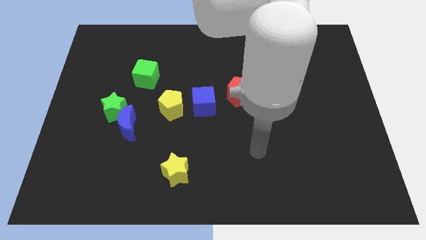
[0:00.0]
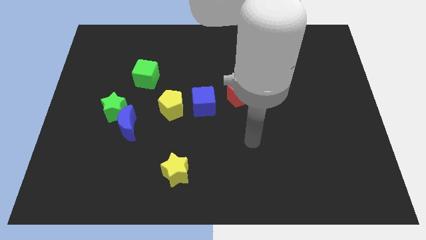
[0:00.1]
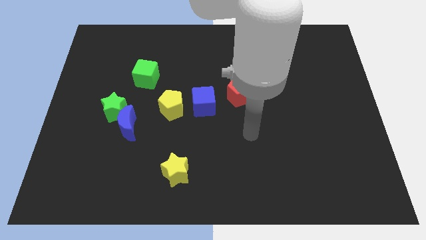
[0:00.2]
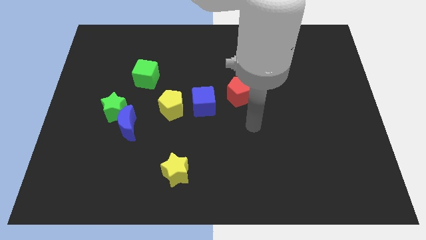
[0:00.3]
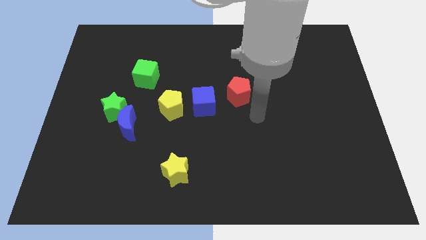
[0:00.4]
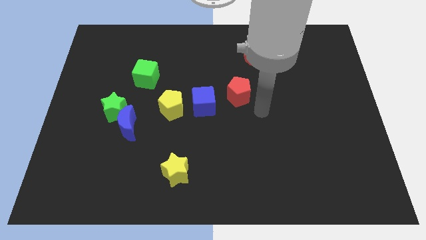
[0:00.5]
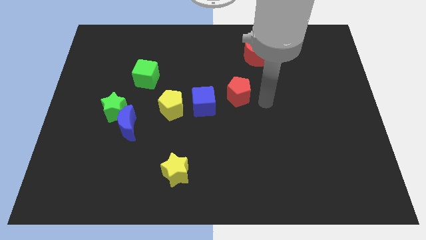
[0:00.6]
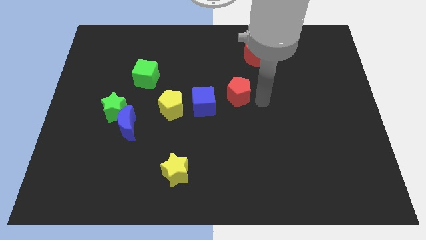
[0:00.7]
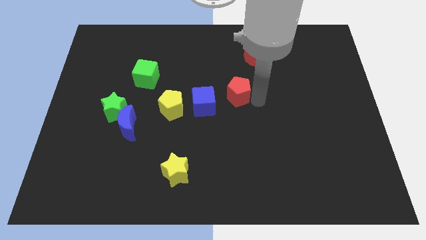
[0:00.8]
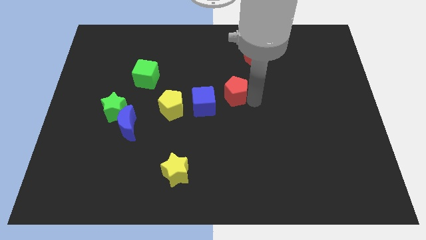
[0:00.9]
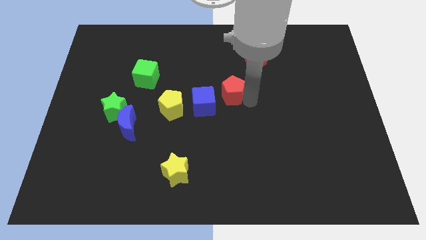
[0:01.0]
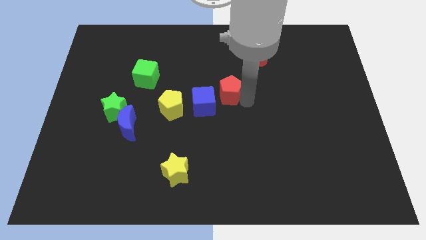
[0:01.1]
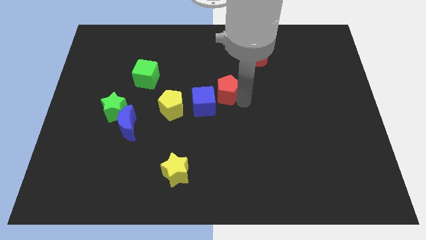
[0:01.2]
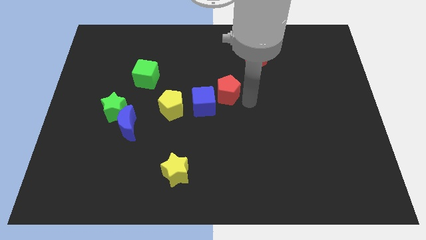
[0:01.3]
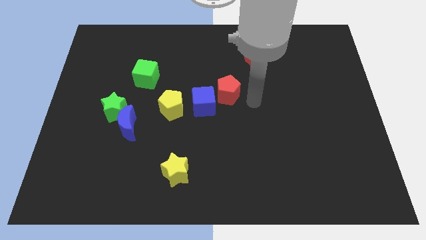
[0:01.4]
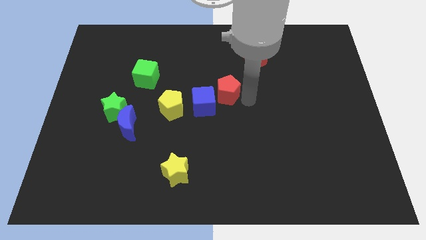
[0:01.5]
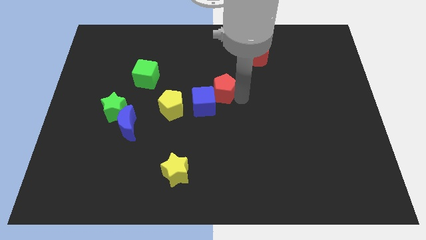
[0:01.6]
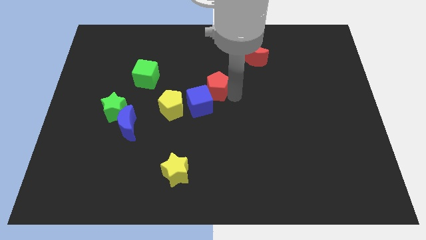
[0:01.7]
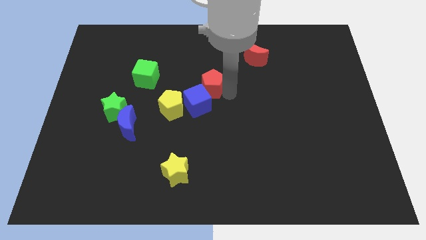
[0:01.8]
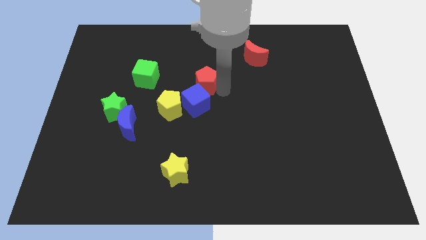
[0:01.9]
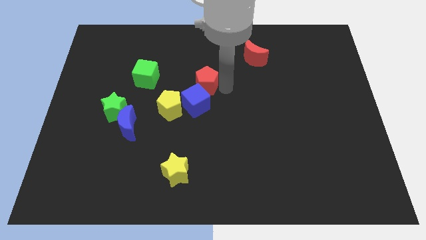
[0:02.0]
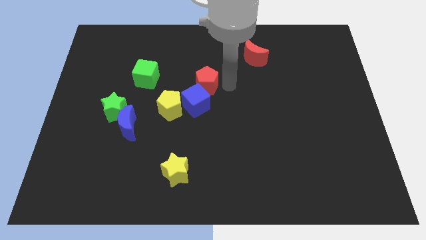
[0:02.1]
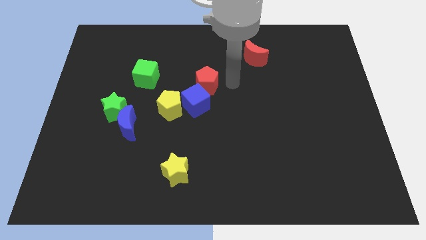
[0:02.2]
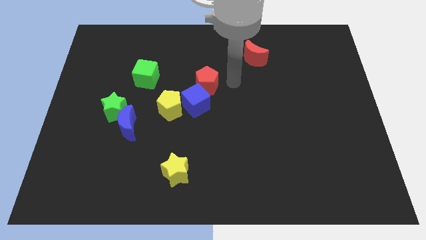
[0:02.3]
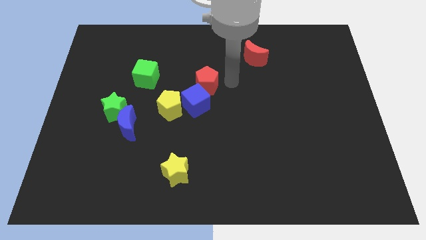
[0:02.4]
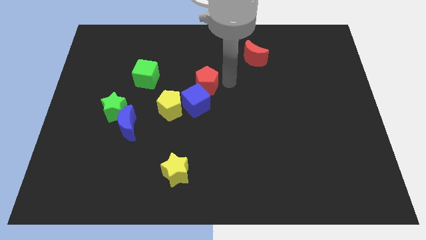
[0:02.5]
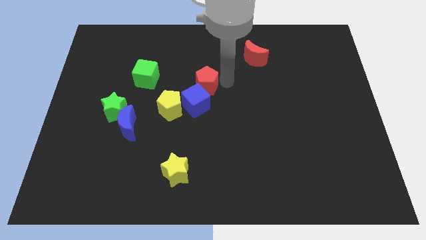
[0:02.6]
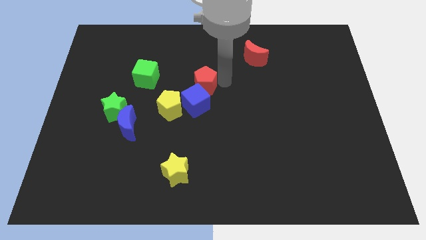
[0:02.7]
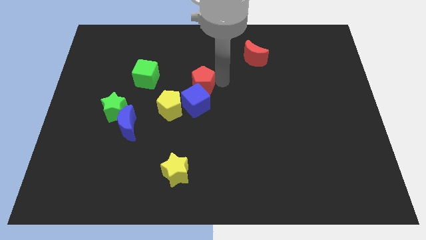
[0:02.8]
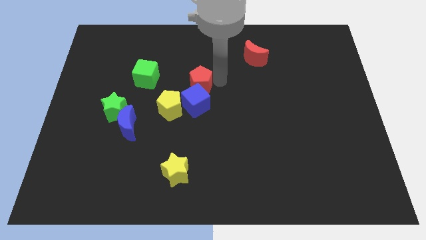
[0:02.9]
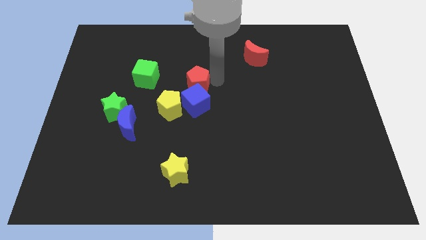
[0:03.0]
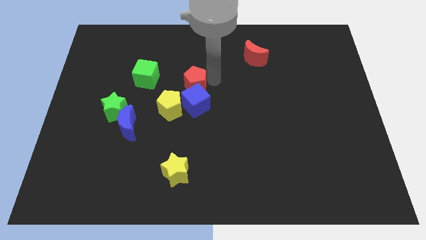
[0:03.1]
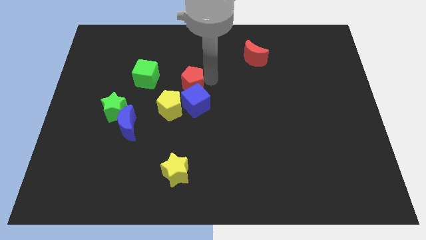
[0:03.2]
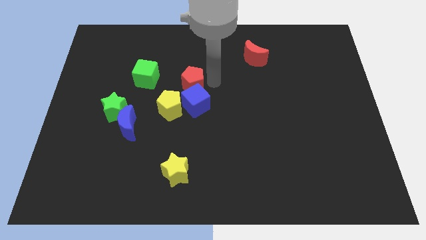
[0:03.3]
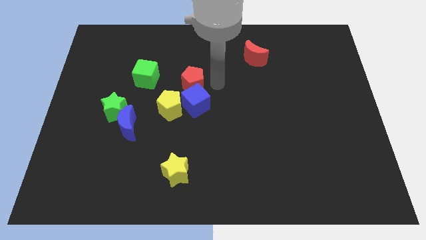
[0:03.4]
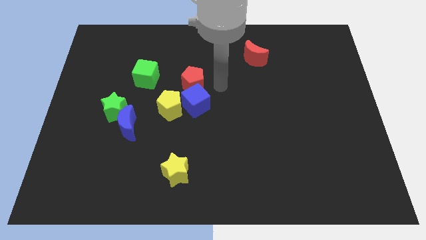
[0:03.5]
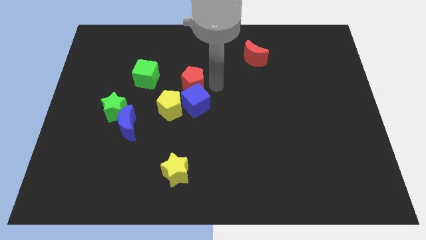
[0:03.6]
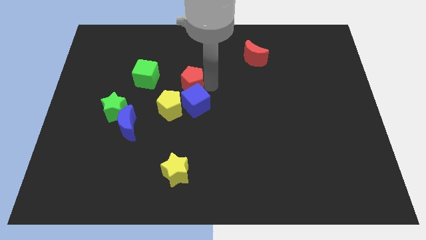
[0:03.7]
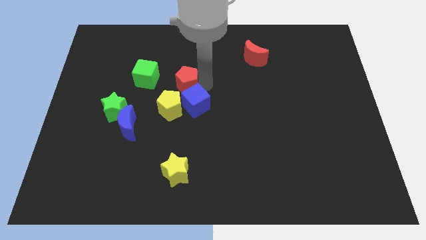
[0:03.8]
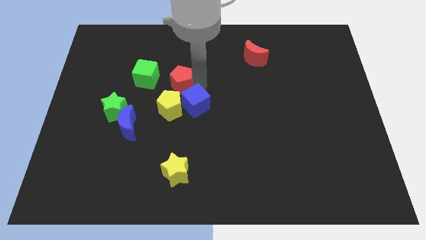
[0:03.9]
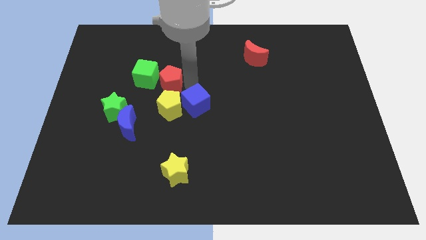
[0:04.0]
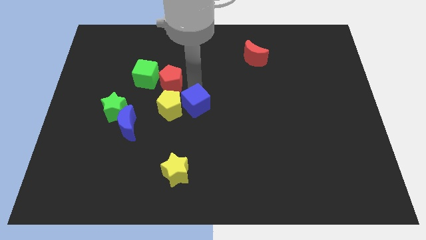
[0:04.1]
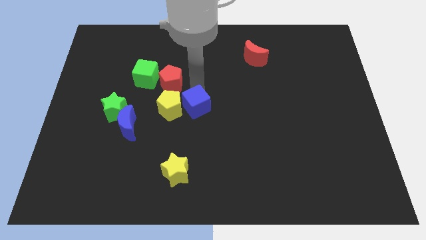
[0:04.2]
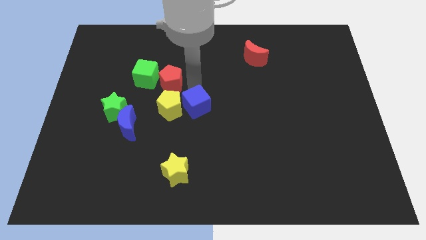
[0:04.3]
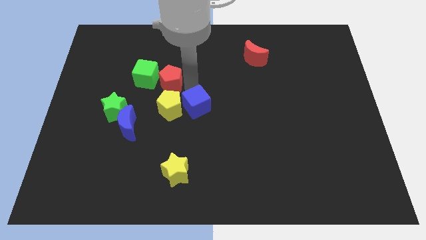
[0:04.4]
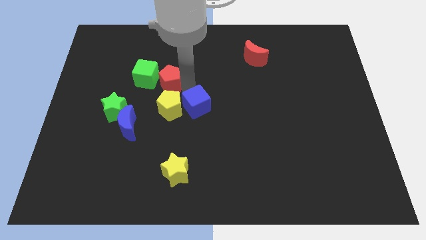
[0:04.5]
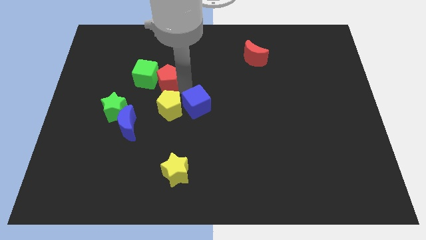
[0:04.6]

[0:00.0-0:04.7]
slide the red pentagon next to the green cube

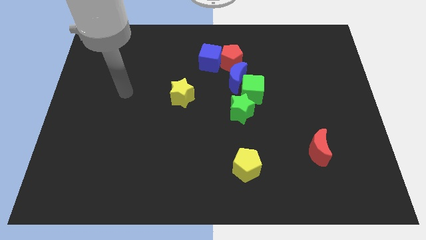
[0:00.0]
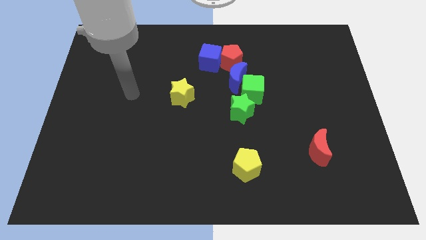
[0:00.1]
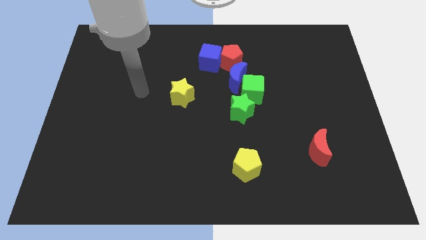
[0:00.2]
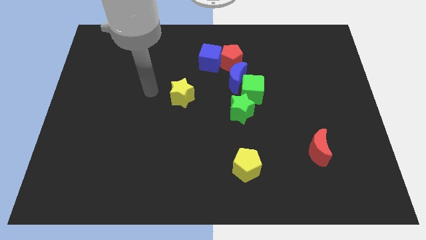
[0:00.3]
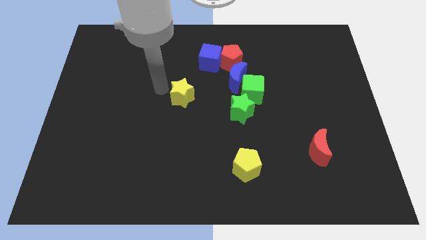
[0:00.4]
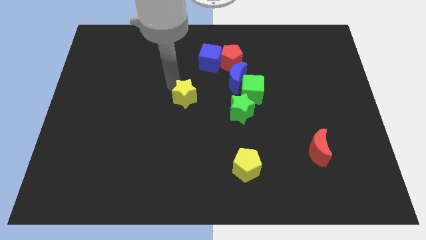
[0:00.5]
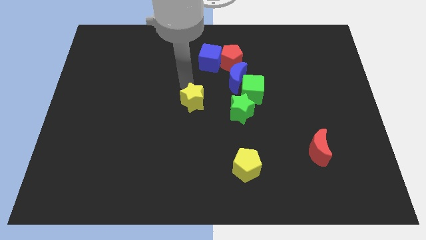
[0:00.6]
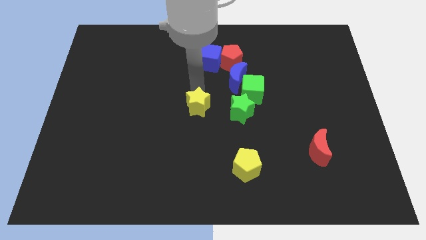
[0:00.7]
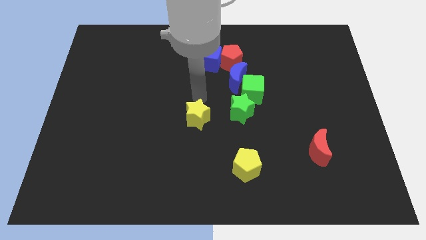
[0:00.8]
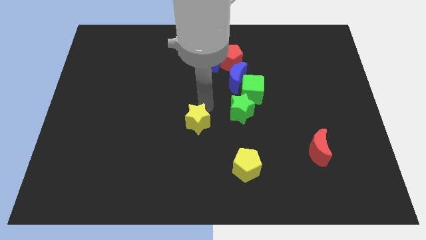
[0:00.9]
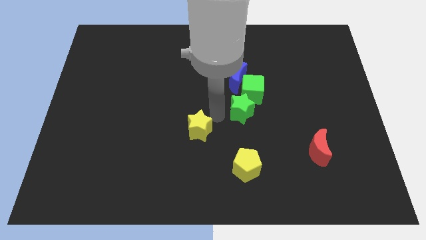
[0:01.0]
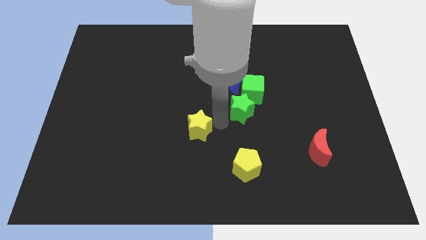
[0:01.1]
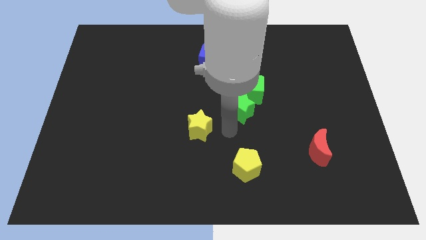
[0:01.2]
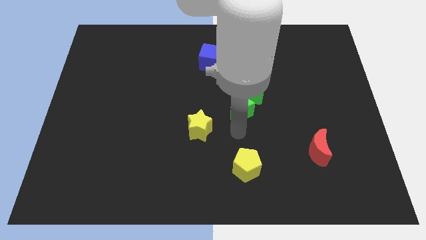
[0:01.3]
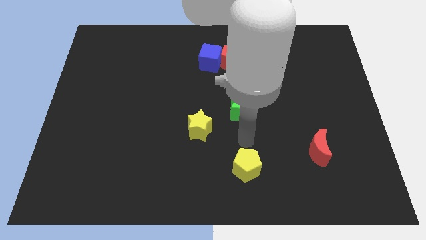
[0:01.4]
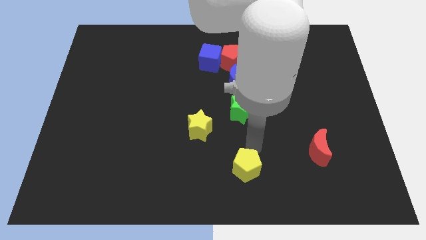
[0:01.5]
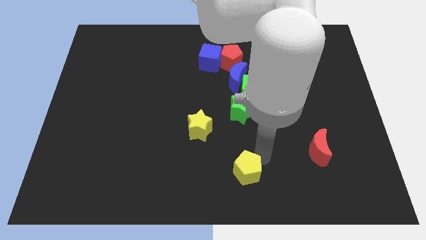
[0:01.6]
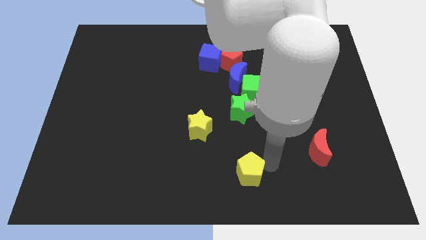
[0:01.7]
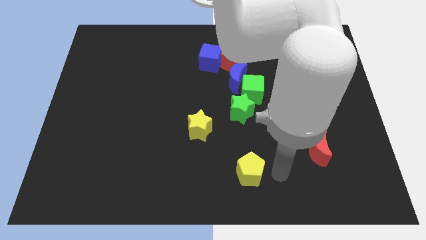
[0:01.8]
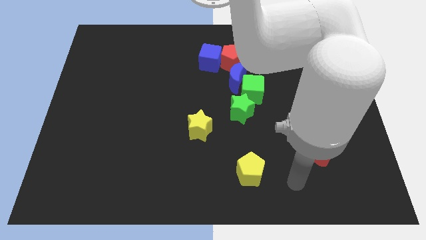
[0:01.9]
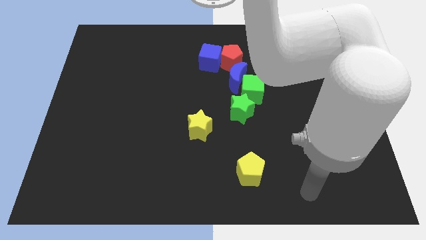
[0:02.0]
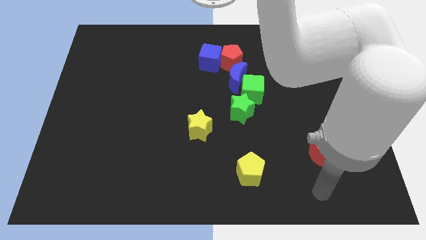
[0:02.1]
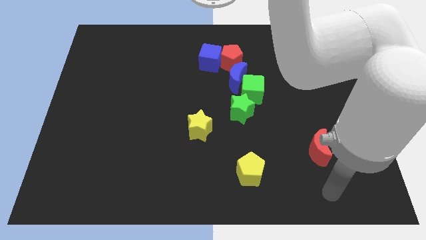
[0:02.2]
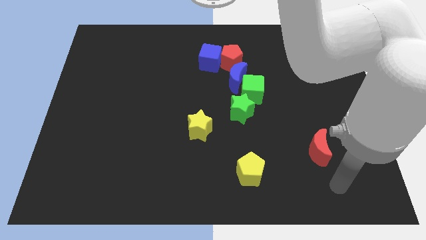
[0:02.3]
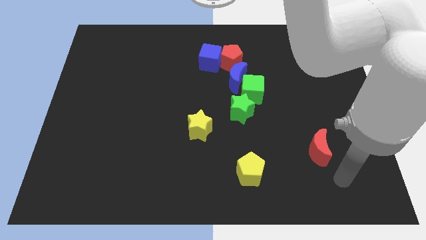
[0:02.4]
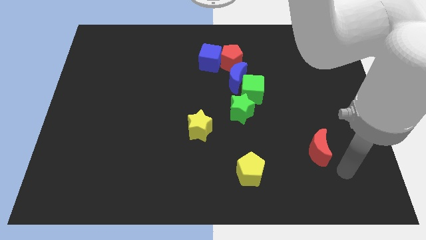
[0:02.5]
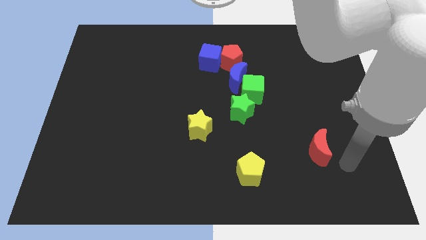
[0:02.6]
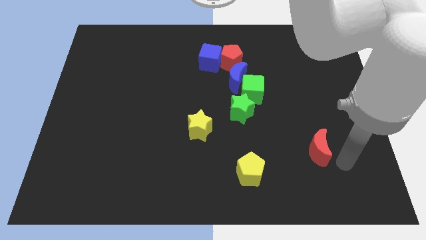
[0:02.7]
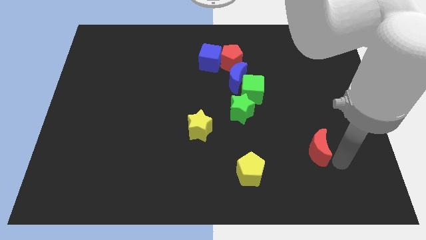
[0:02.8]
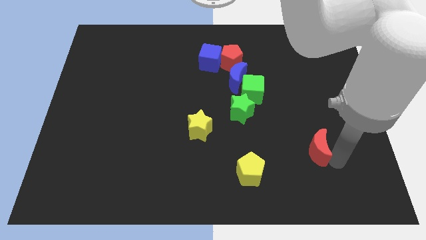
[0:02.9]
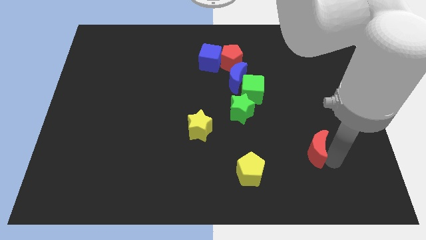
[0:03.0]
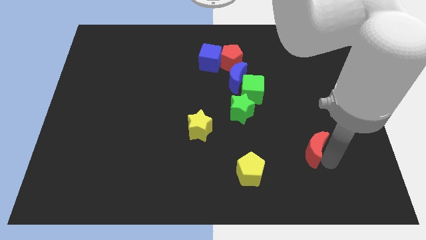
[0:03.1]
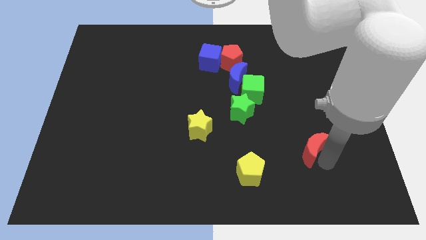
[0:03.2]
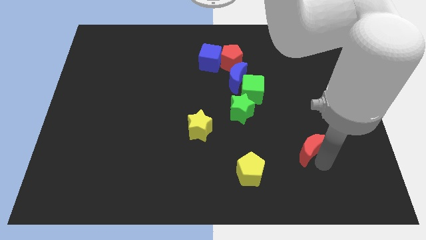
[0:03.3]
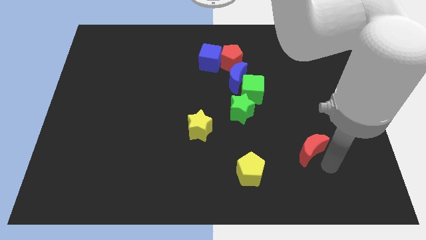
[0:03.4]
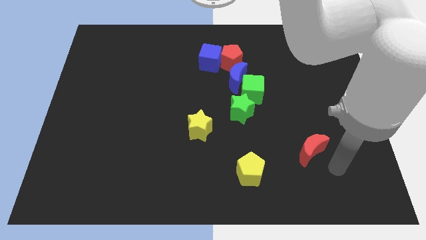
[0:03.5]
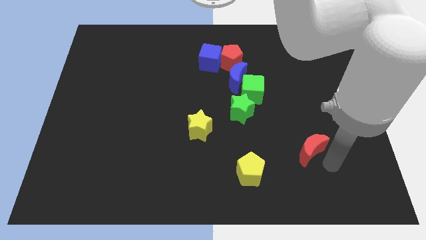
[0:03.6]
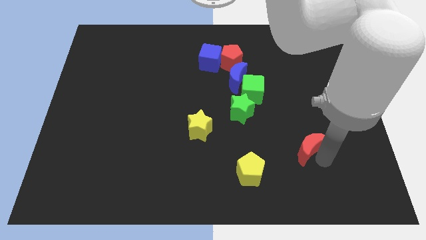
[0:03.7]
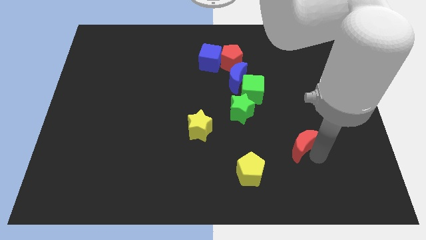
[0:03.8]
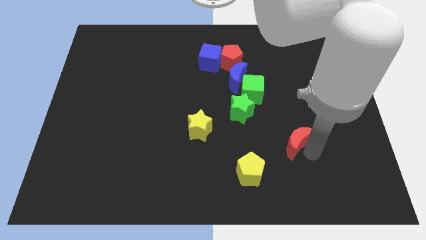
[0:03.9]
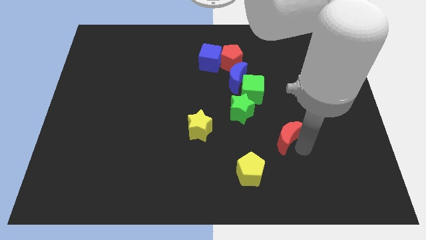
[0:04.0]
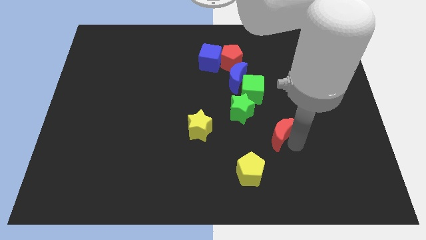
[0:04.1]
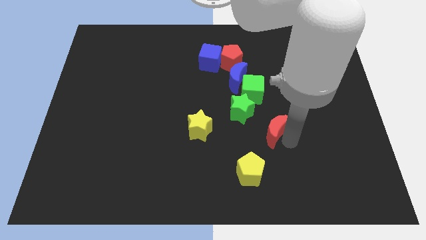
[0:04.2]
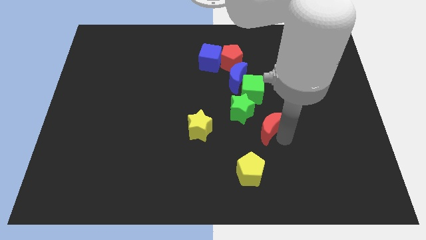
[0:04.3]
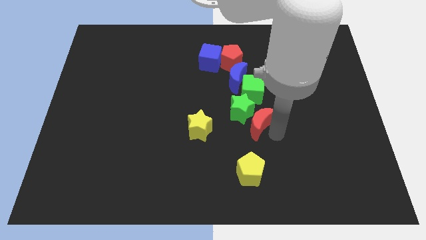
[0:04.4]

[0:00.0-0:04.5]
slide the red moon to the green star
